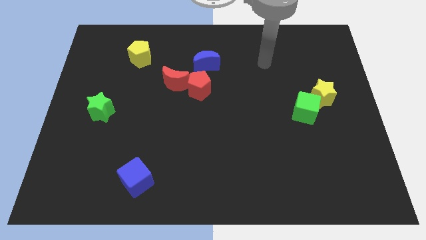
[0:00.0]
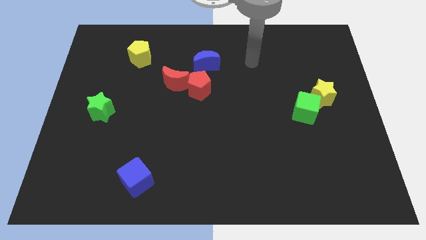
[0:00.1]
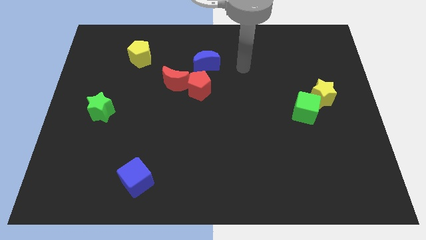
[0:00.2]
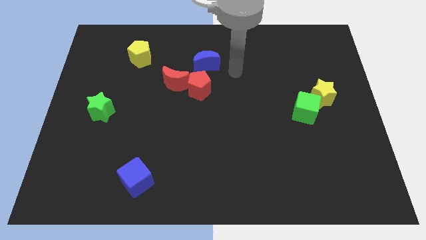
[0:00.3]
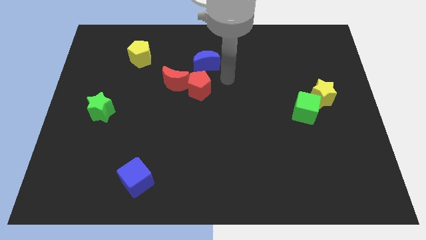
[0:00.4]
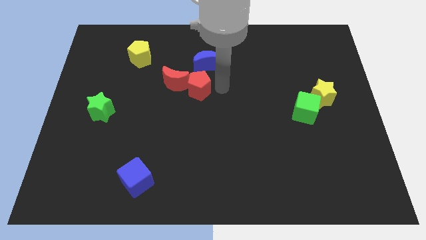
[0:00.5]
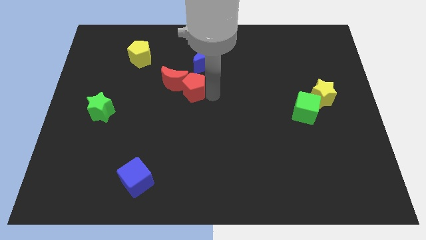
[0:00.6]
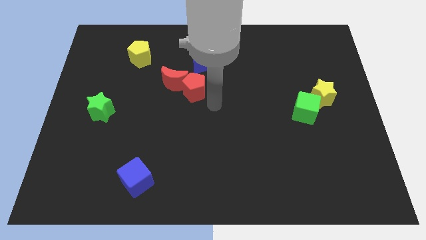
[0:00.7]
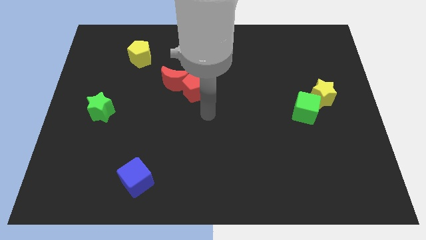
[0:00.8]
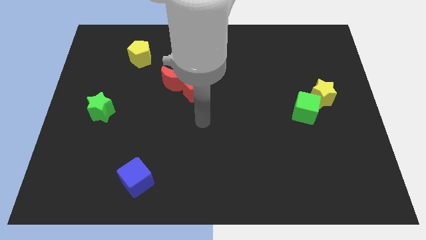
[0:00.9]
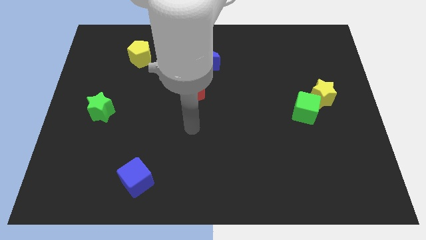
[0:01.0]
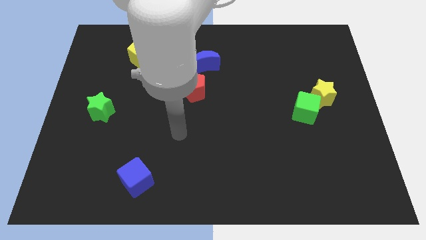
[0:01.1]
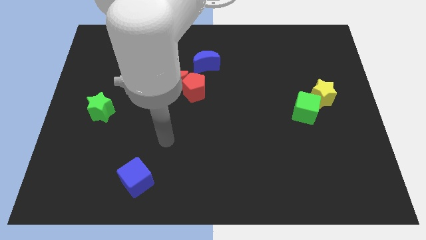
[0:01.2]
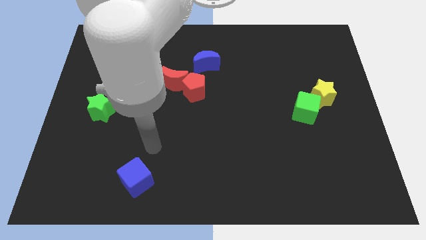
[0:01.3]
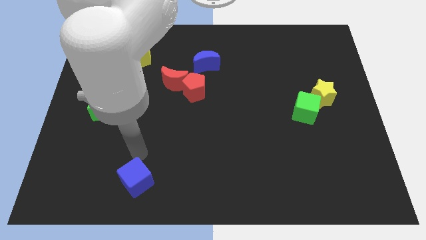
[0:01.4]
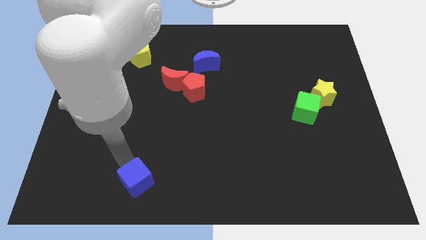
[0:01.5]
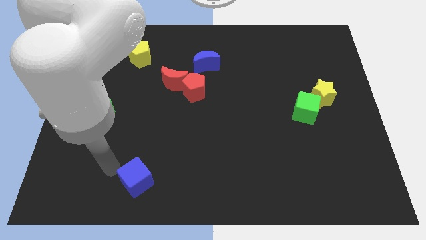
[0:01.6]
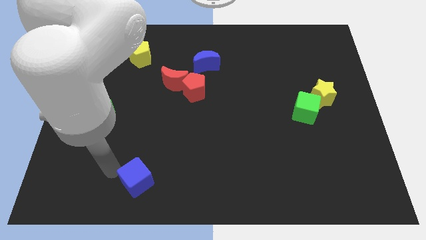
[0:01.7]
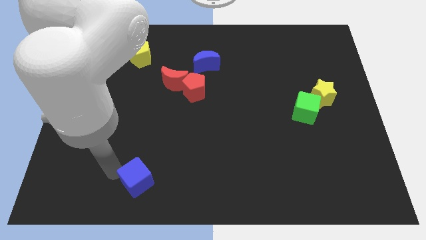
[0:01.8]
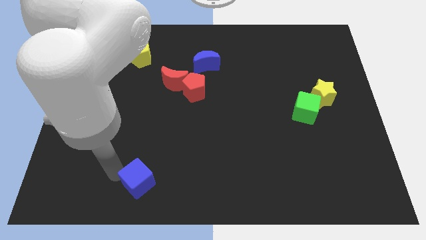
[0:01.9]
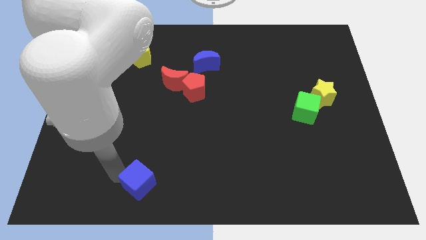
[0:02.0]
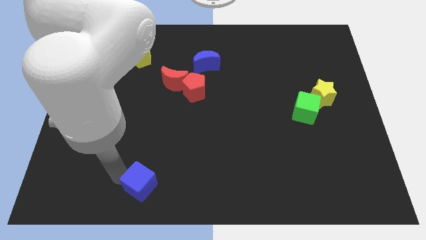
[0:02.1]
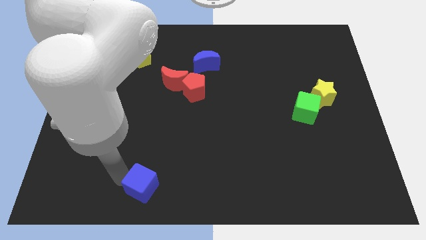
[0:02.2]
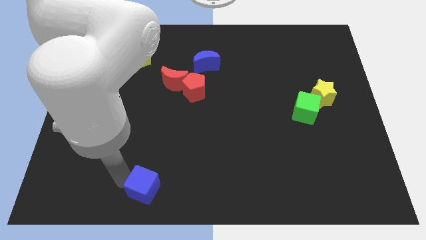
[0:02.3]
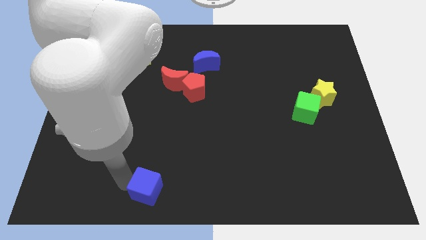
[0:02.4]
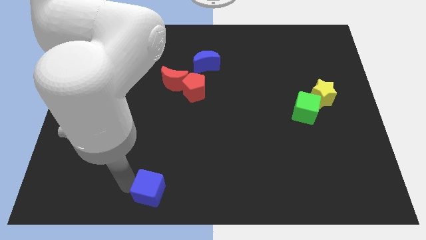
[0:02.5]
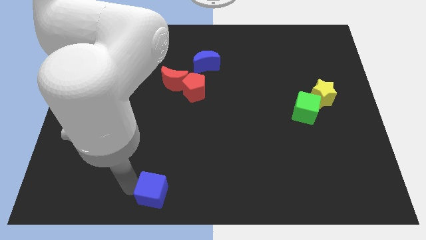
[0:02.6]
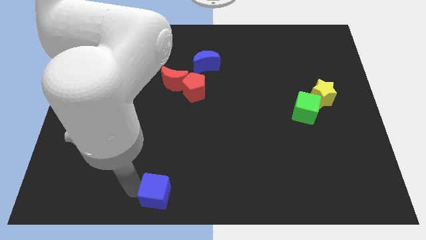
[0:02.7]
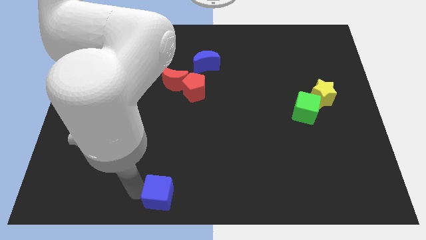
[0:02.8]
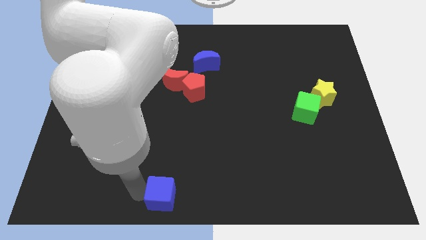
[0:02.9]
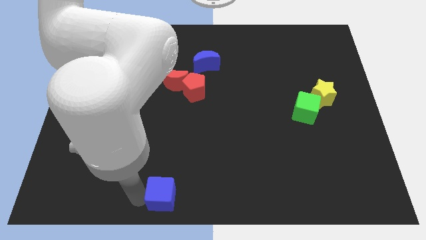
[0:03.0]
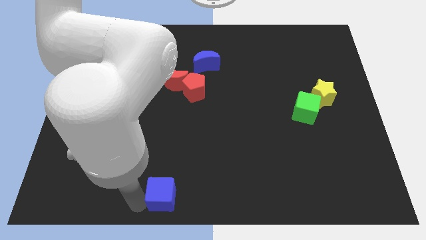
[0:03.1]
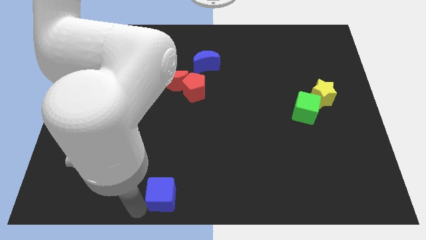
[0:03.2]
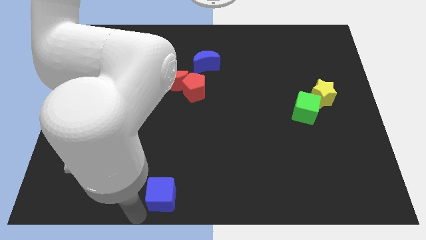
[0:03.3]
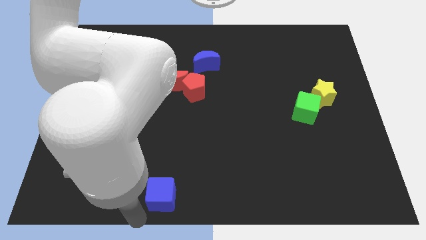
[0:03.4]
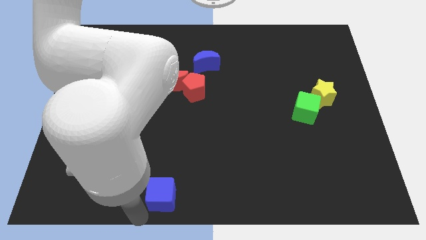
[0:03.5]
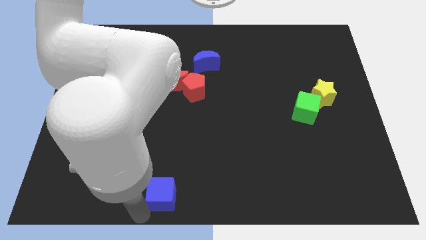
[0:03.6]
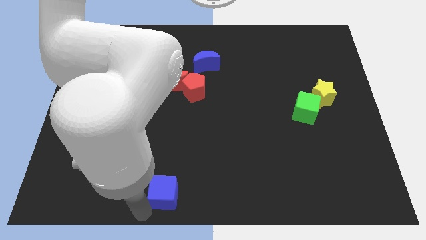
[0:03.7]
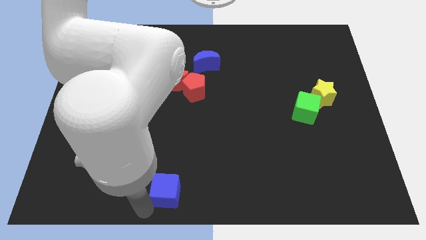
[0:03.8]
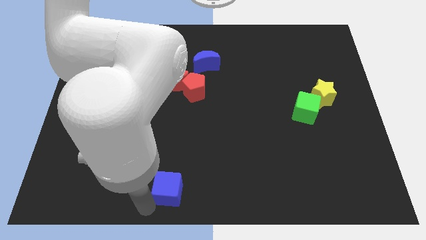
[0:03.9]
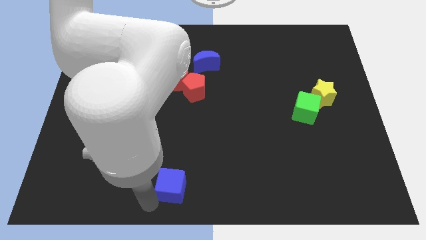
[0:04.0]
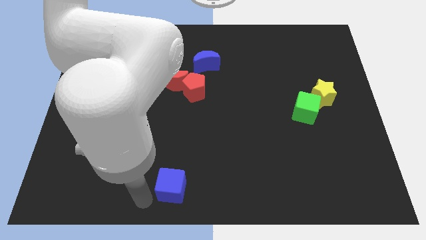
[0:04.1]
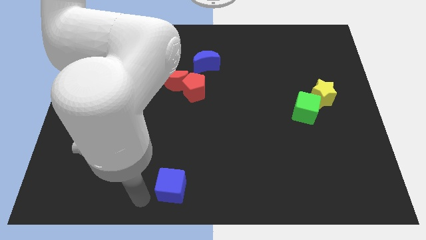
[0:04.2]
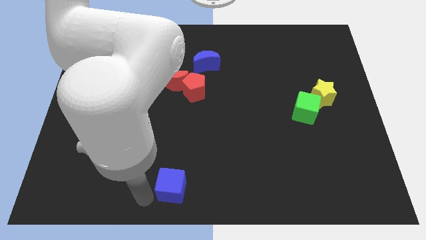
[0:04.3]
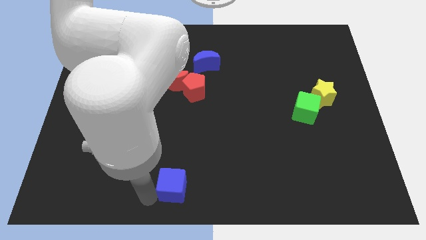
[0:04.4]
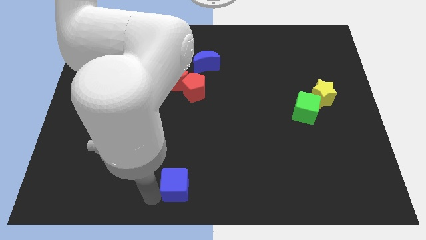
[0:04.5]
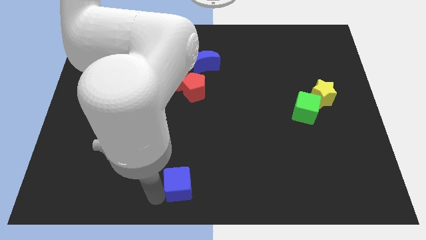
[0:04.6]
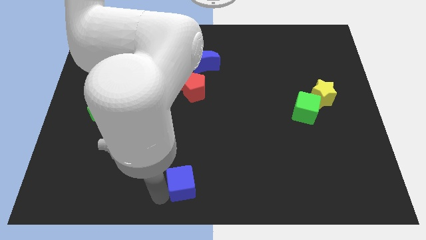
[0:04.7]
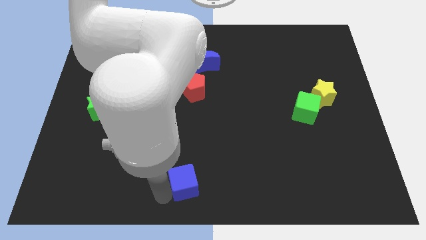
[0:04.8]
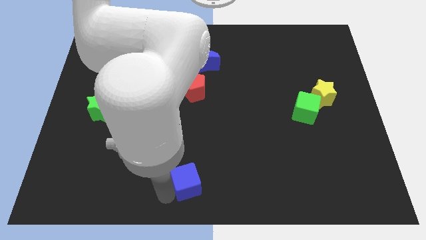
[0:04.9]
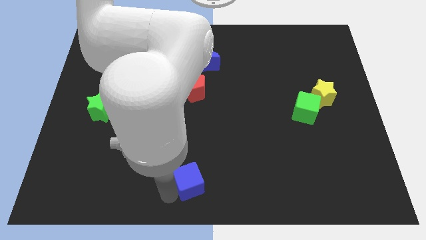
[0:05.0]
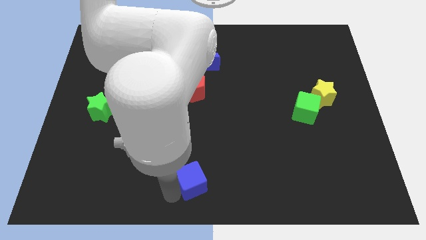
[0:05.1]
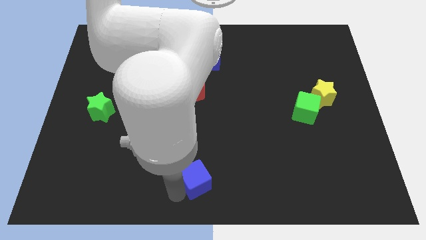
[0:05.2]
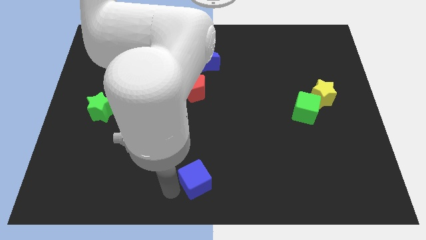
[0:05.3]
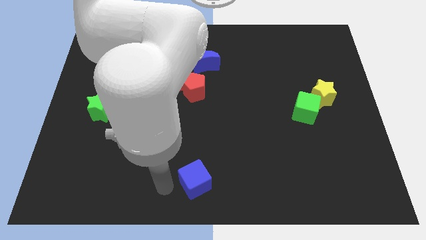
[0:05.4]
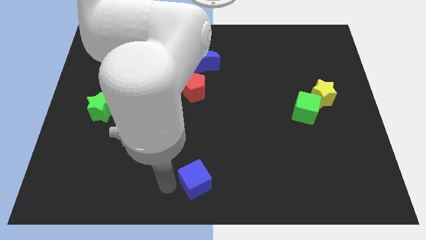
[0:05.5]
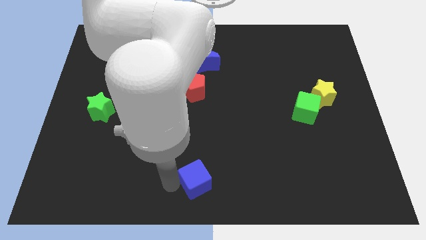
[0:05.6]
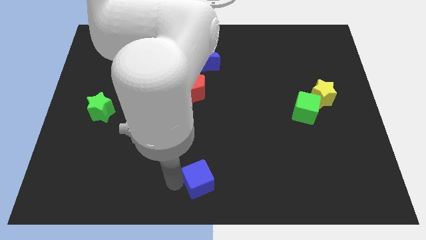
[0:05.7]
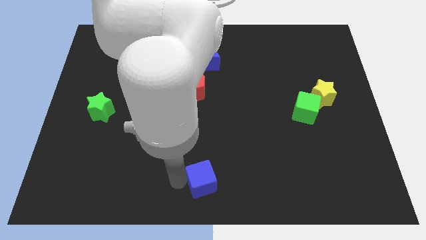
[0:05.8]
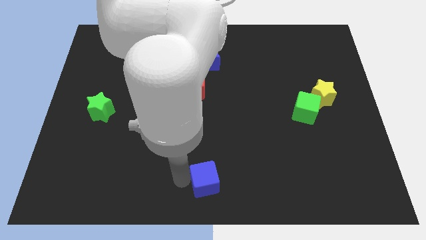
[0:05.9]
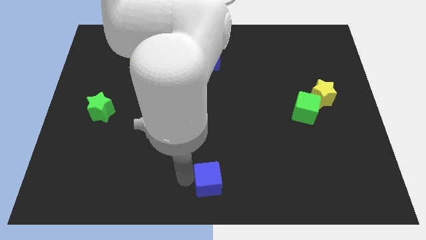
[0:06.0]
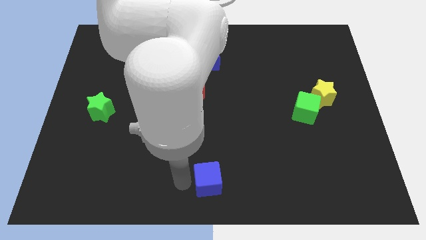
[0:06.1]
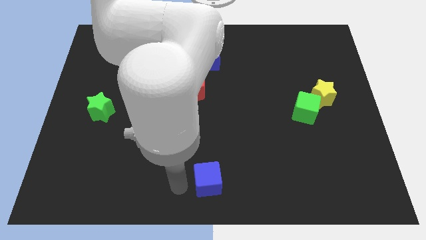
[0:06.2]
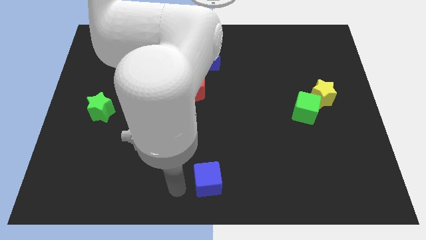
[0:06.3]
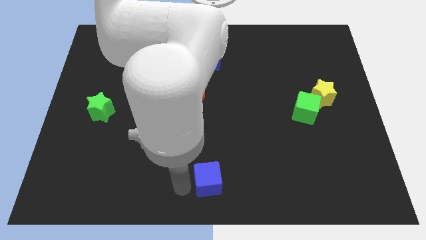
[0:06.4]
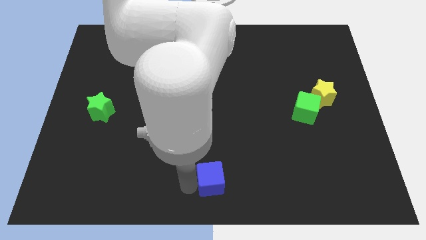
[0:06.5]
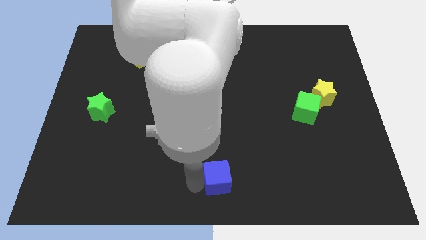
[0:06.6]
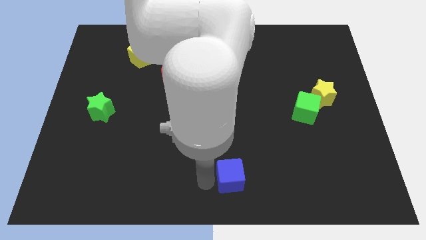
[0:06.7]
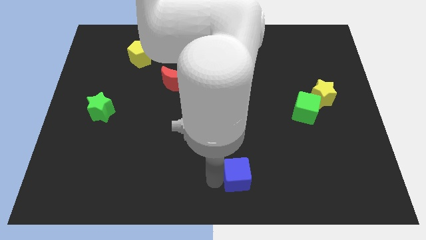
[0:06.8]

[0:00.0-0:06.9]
slide the blue cube to the right

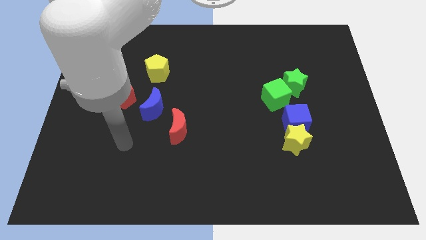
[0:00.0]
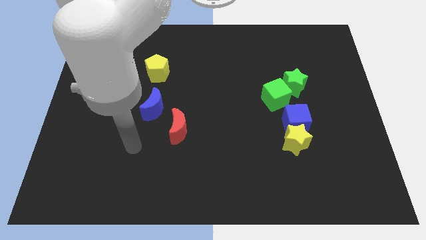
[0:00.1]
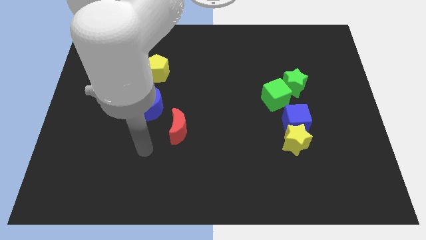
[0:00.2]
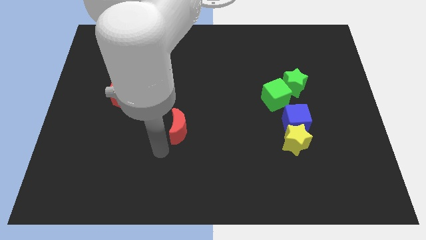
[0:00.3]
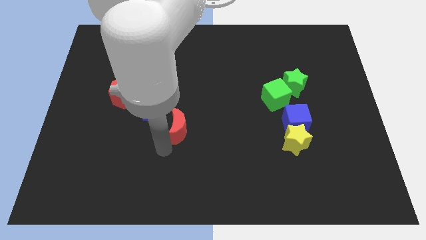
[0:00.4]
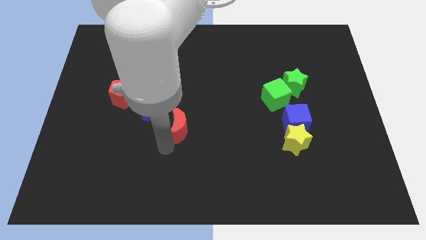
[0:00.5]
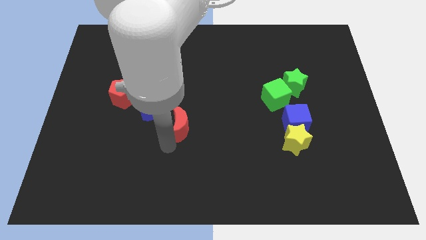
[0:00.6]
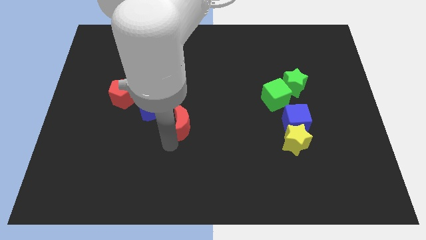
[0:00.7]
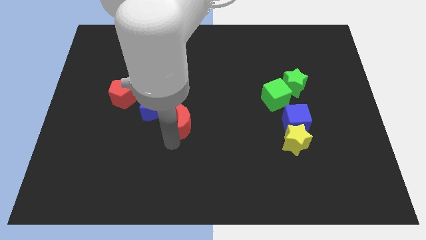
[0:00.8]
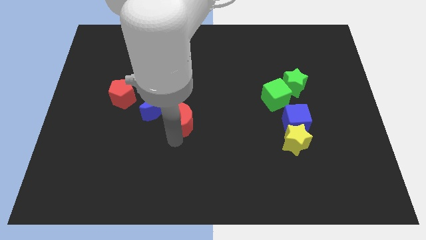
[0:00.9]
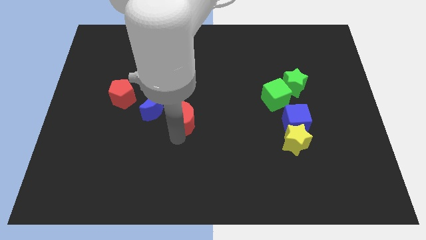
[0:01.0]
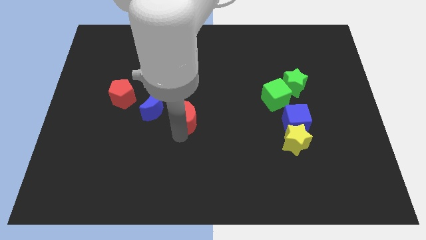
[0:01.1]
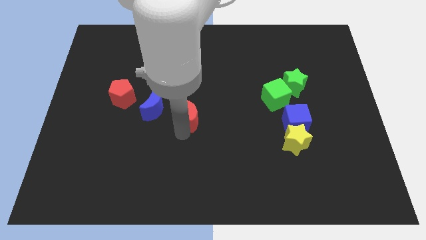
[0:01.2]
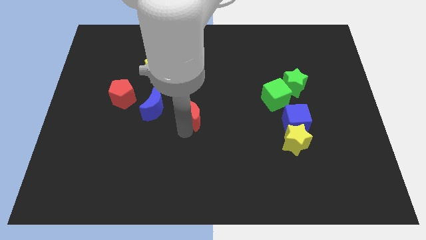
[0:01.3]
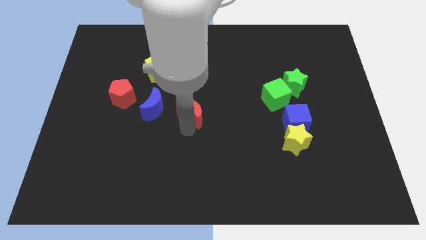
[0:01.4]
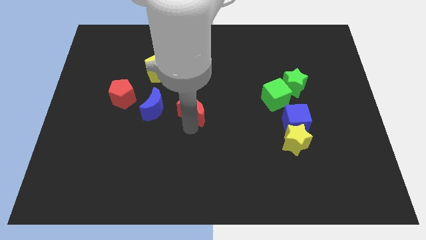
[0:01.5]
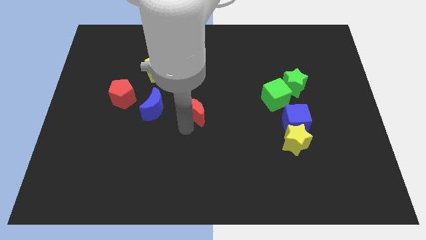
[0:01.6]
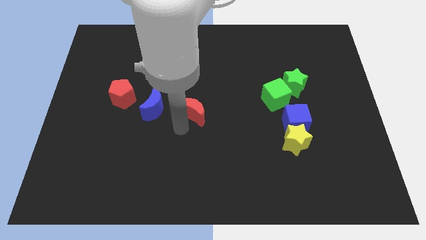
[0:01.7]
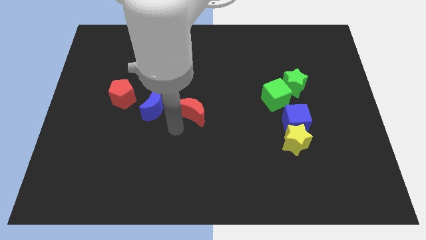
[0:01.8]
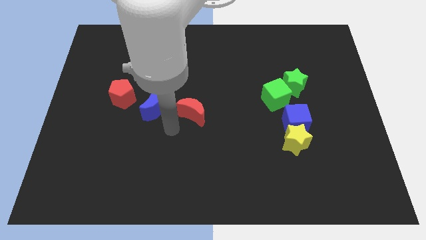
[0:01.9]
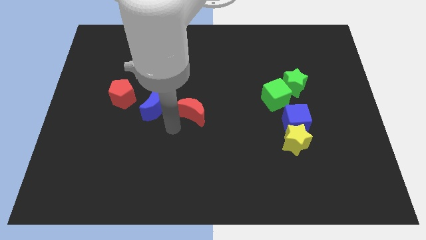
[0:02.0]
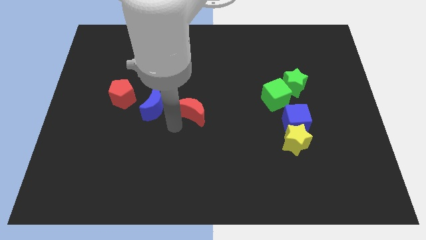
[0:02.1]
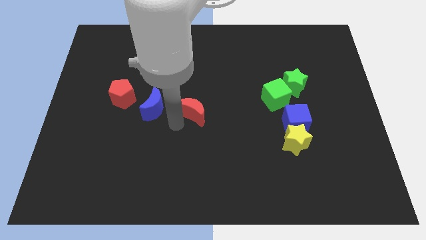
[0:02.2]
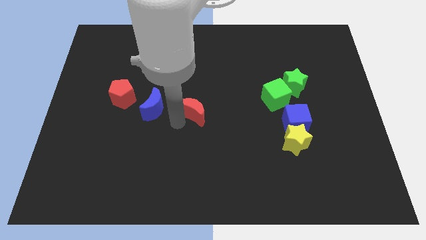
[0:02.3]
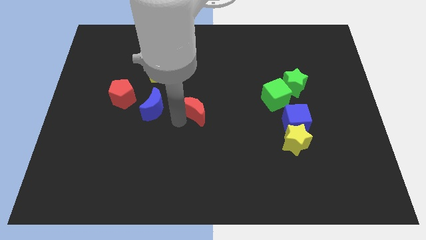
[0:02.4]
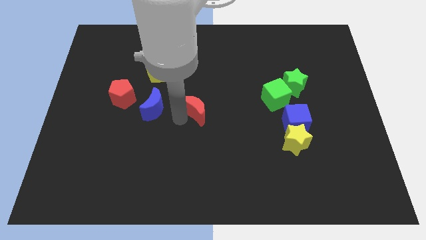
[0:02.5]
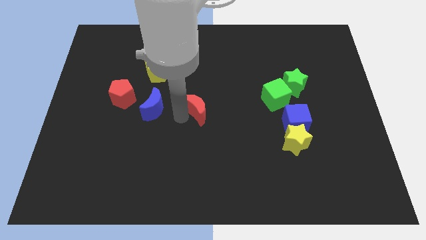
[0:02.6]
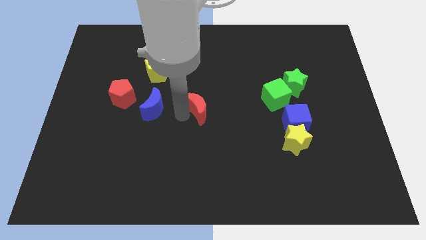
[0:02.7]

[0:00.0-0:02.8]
slightly push the red moon upwards and then to the right
